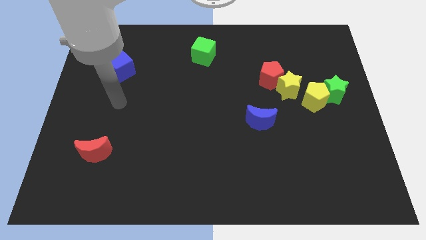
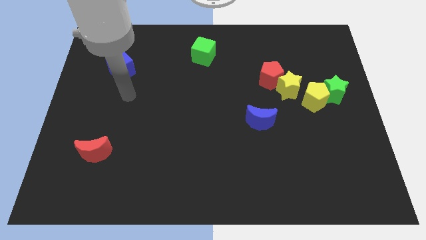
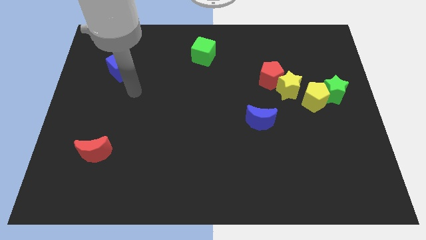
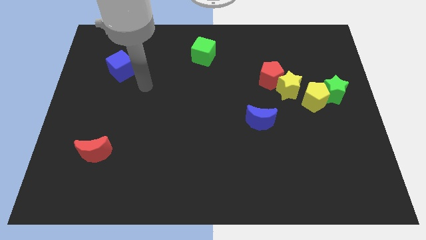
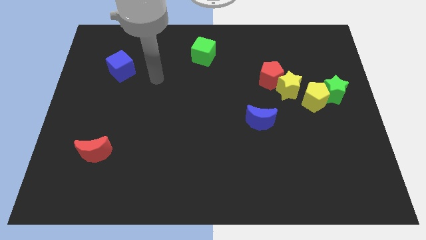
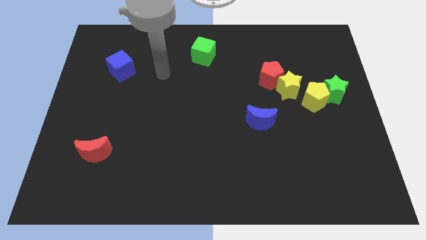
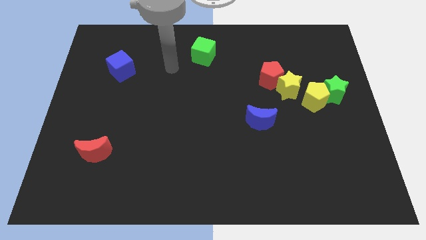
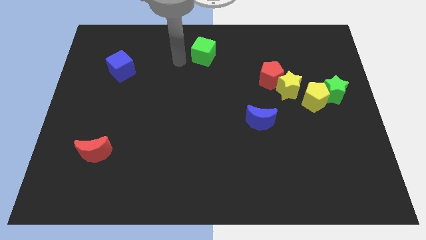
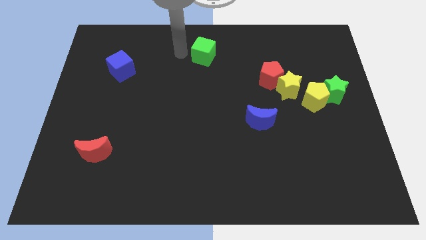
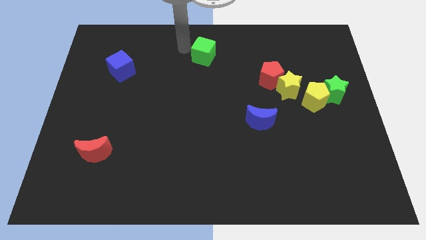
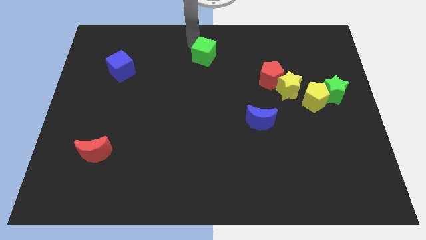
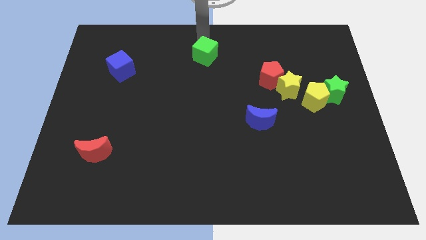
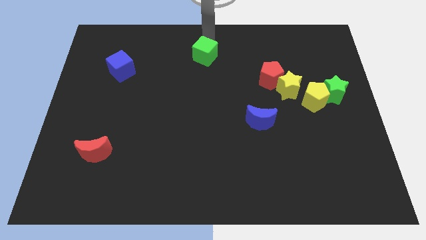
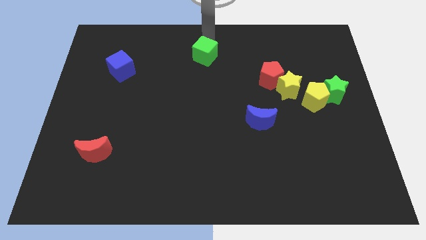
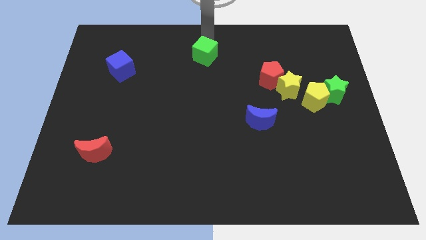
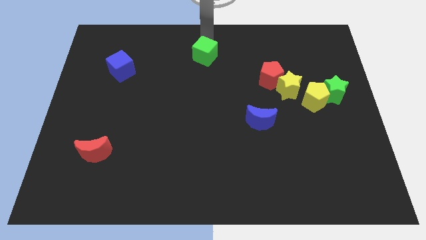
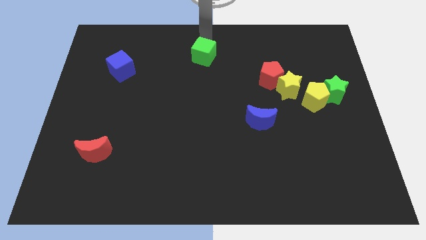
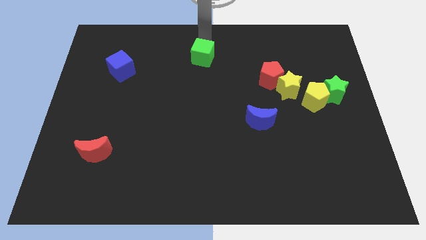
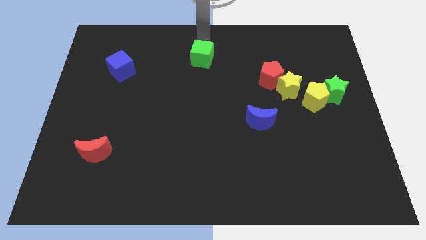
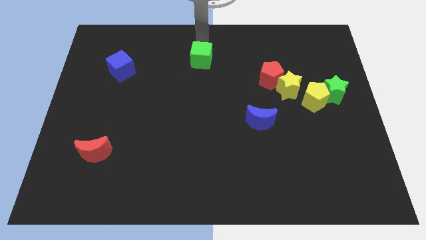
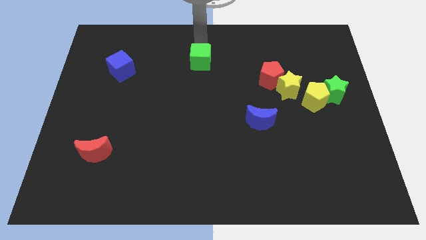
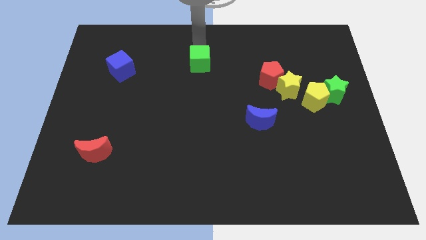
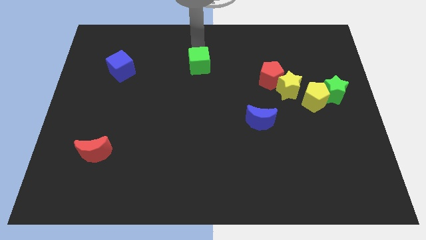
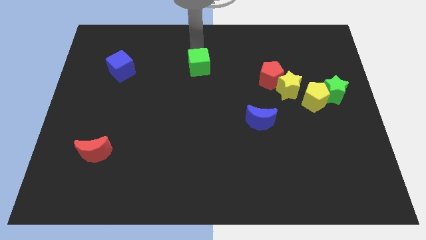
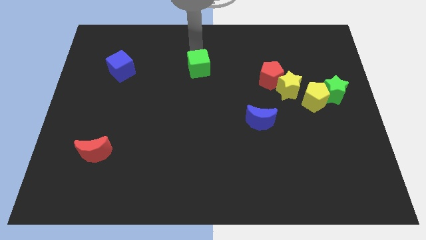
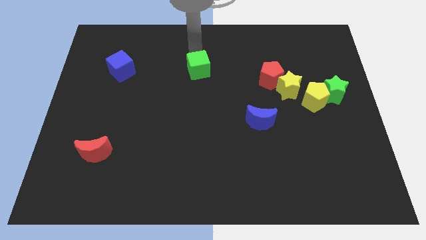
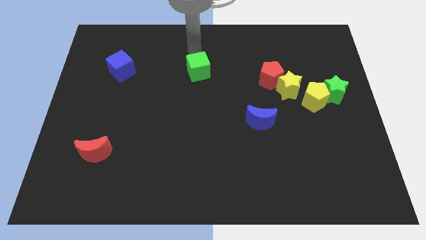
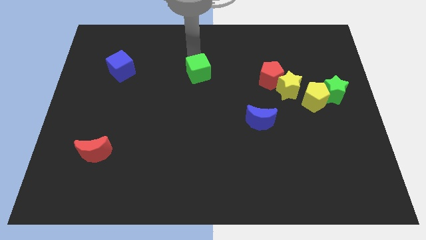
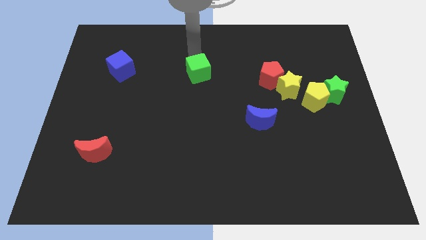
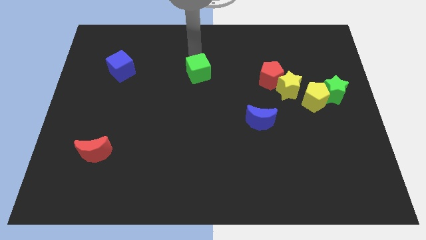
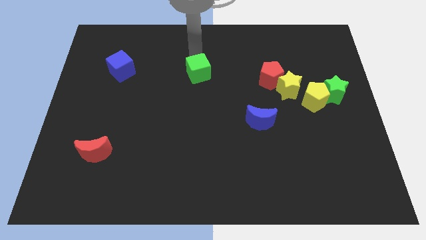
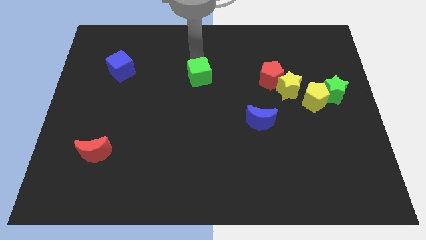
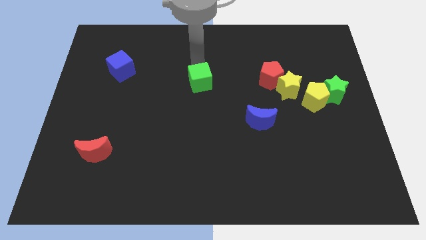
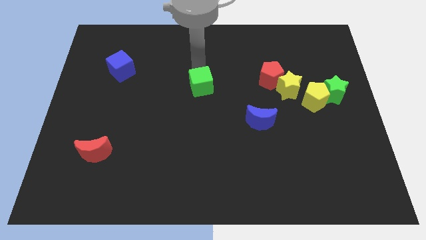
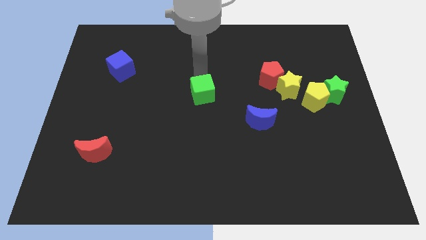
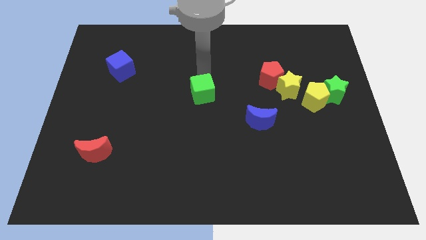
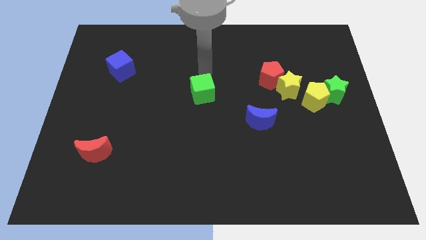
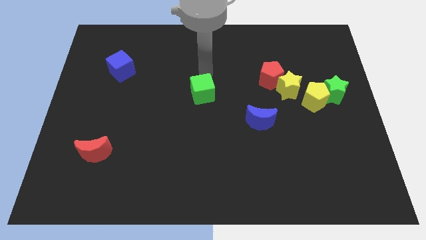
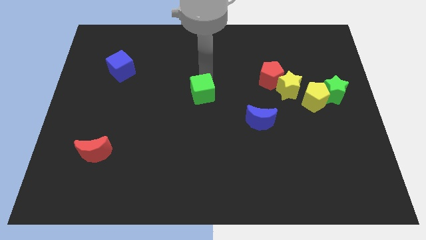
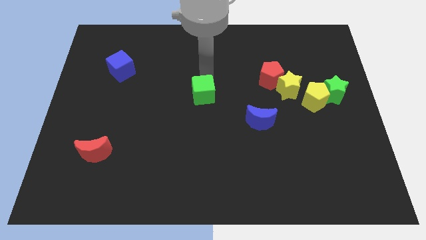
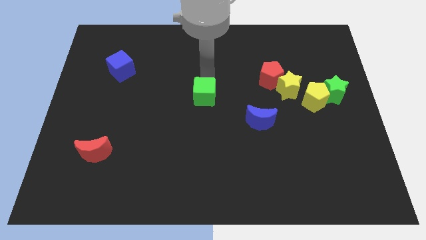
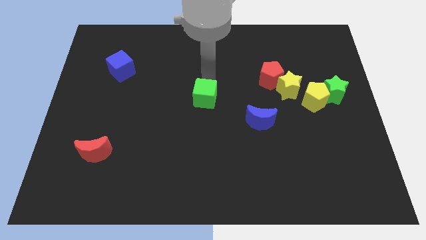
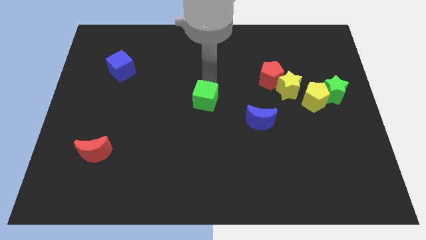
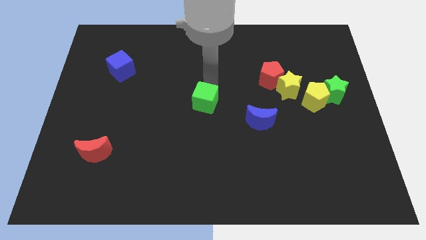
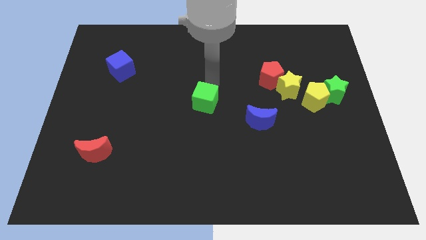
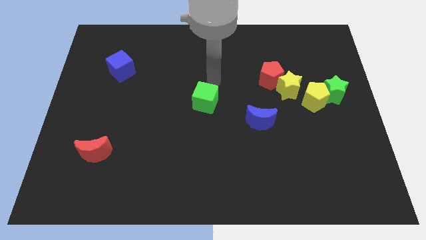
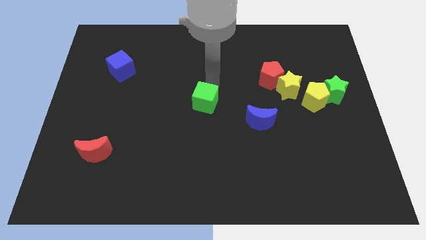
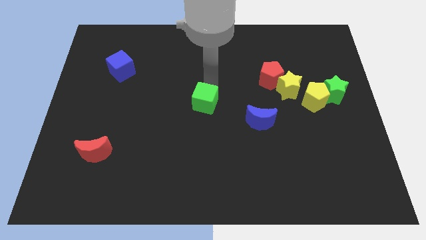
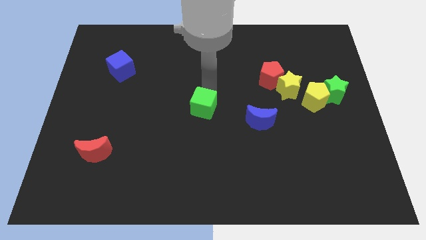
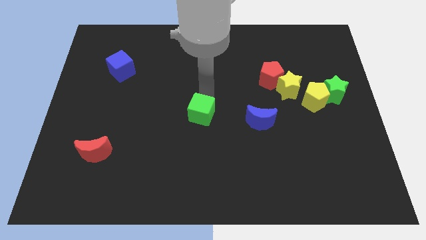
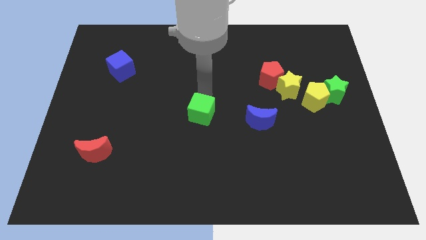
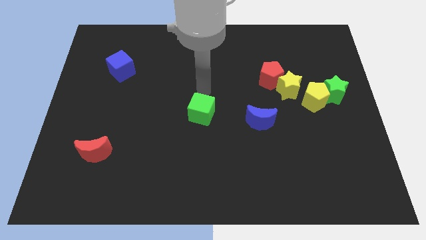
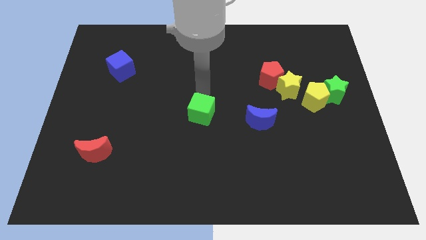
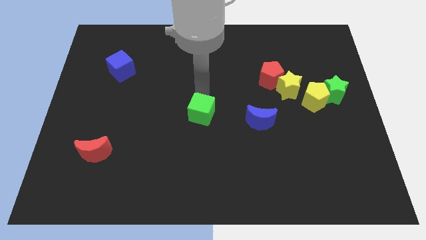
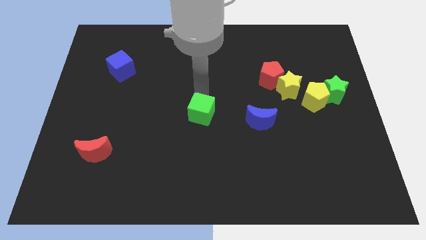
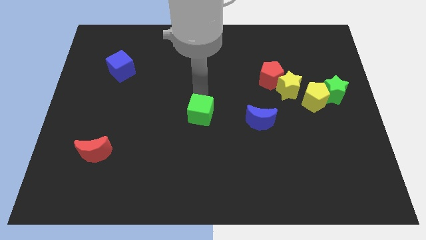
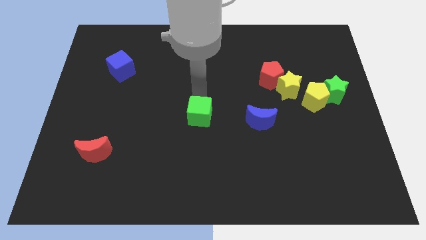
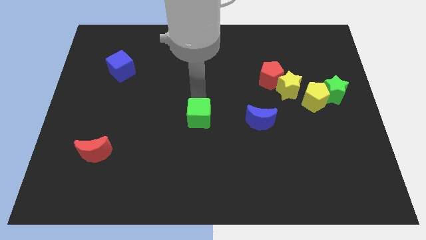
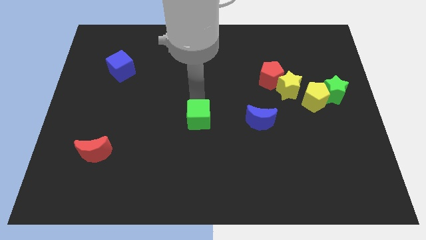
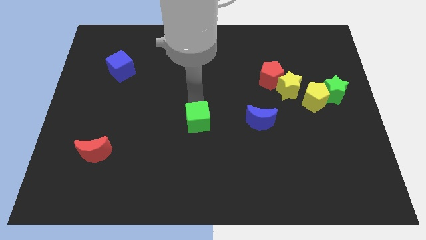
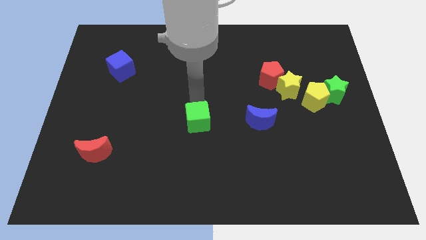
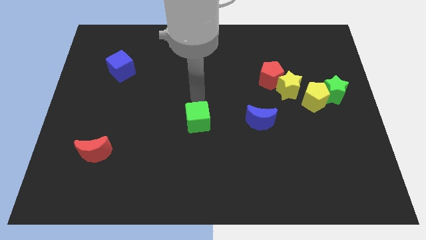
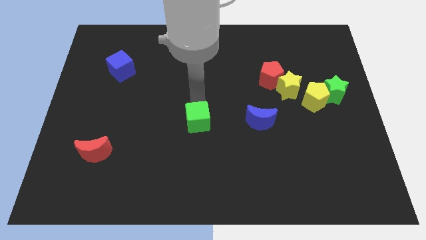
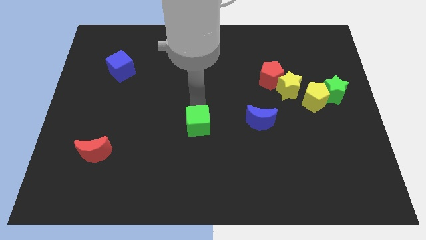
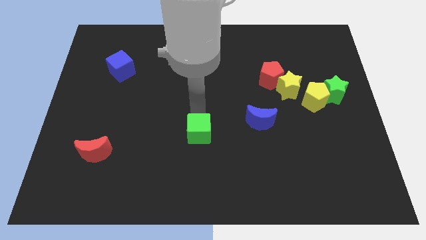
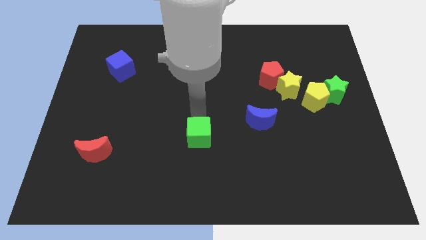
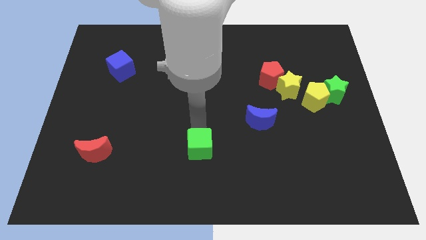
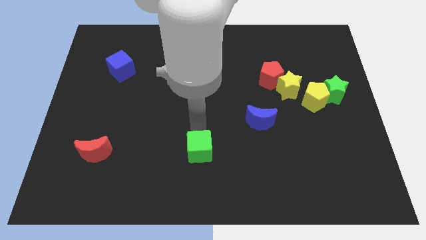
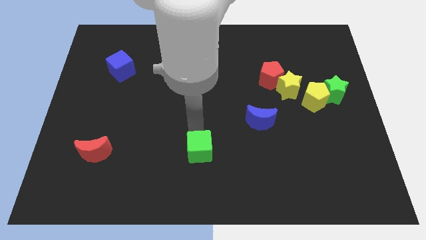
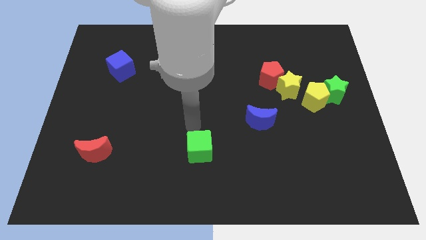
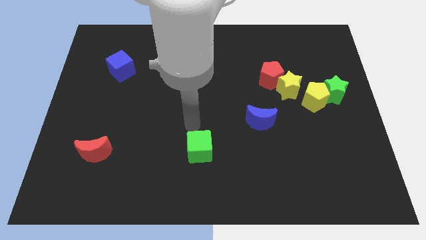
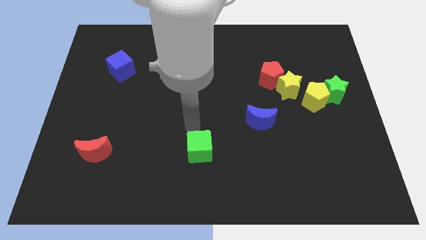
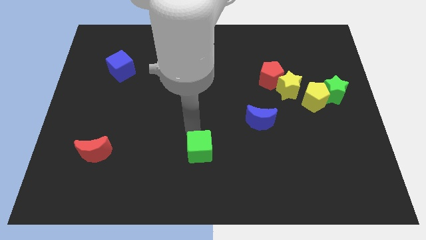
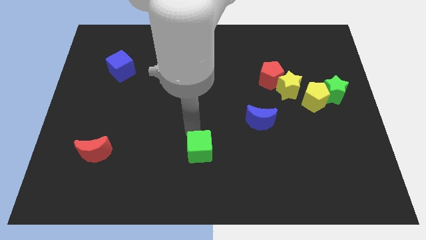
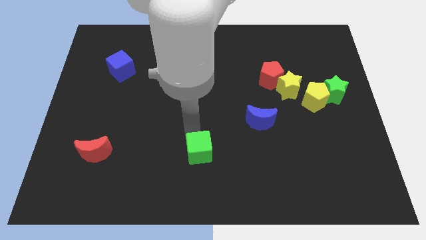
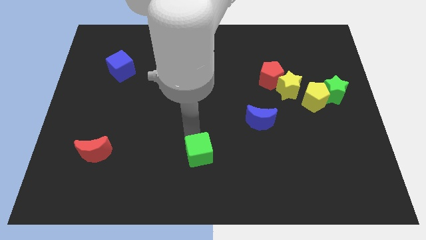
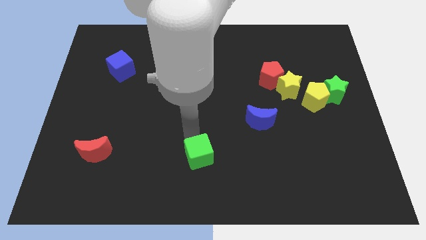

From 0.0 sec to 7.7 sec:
push the green cube to the bottom
